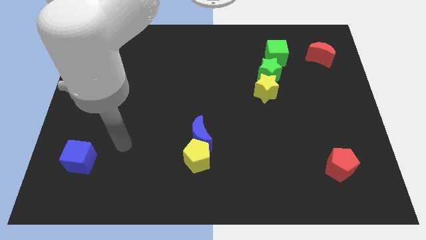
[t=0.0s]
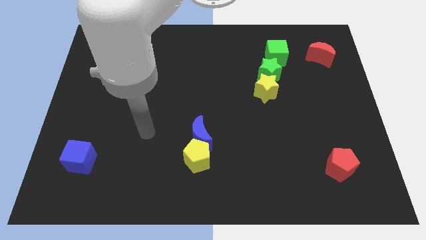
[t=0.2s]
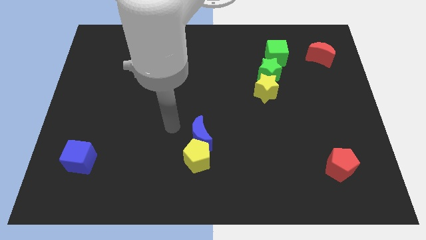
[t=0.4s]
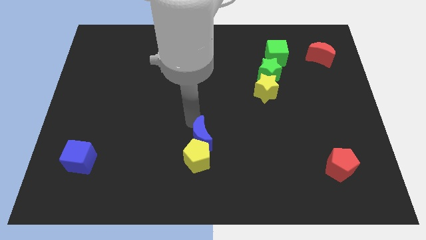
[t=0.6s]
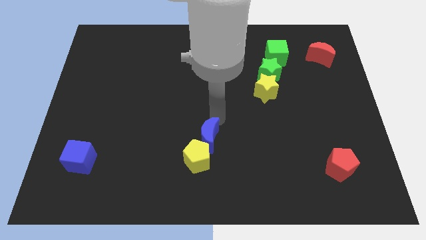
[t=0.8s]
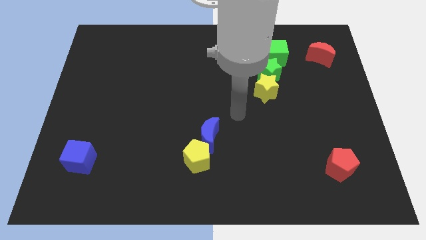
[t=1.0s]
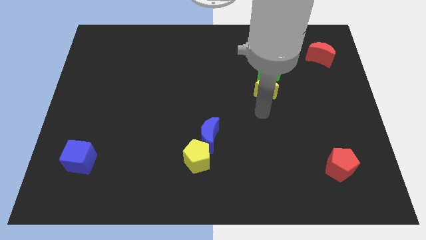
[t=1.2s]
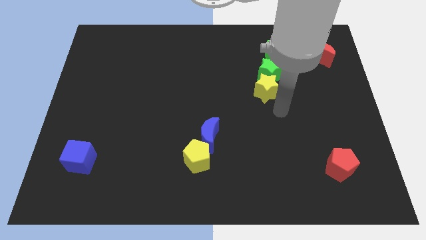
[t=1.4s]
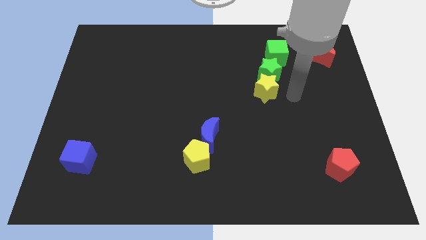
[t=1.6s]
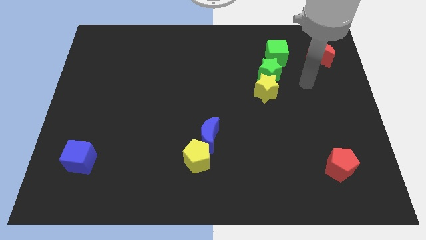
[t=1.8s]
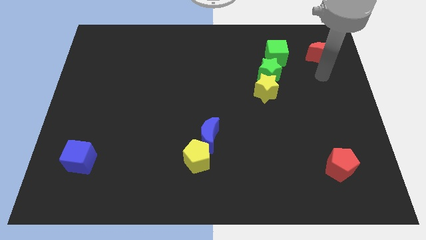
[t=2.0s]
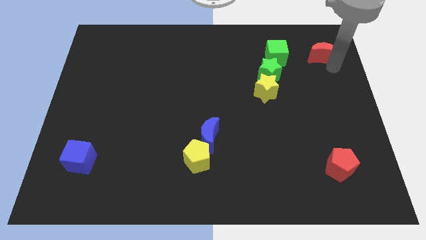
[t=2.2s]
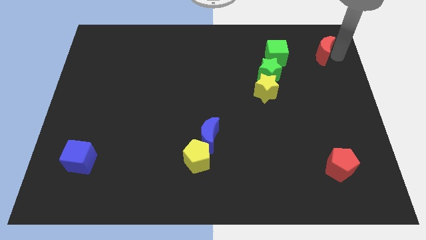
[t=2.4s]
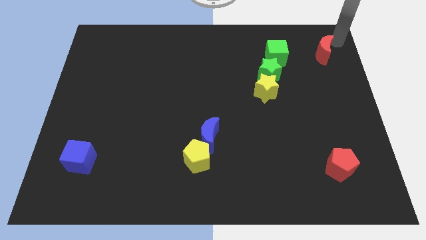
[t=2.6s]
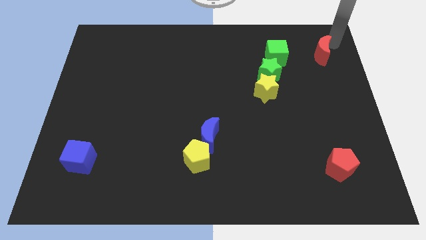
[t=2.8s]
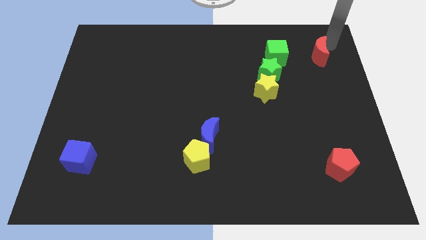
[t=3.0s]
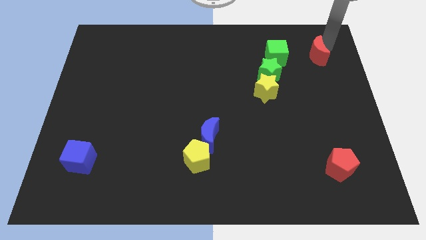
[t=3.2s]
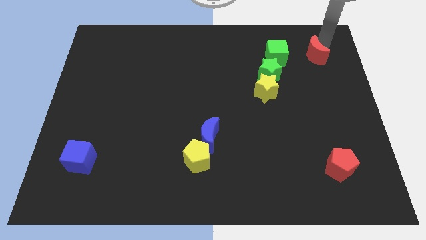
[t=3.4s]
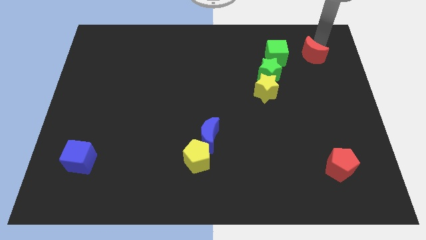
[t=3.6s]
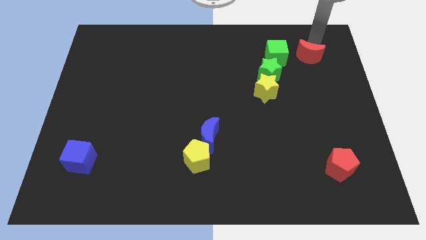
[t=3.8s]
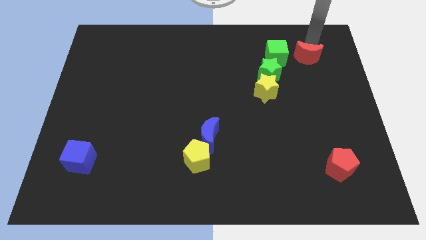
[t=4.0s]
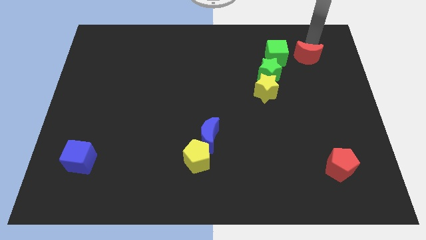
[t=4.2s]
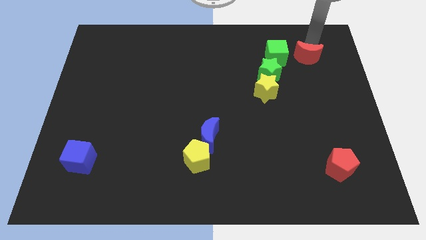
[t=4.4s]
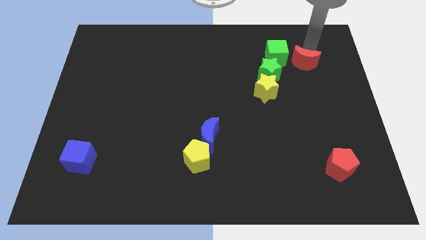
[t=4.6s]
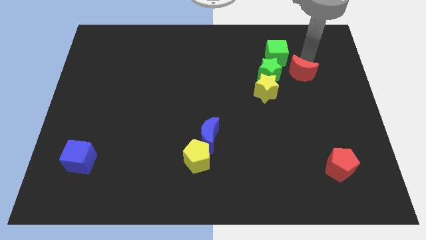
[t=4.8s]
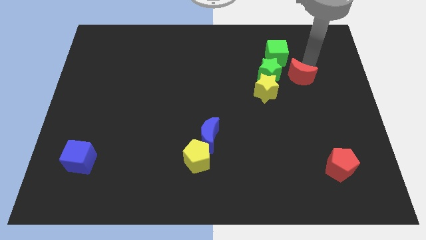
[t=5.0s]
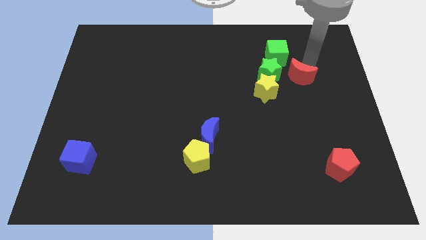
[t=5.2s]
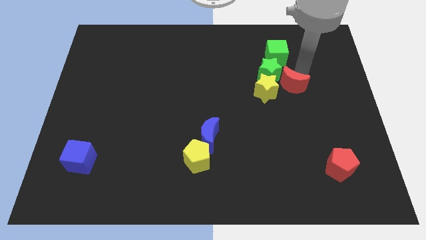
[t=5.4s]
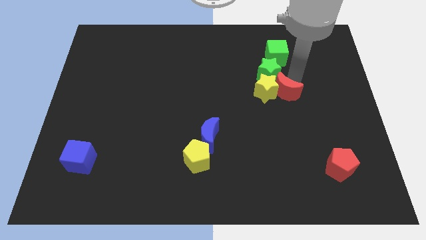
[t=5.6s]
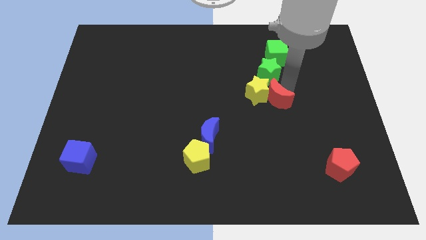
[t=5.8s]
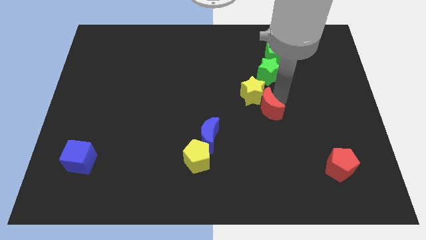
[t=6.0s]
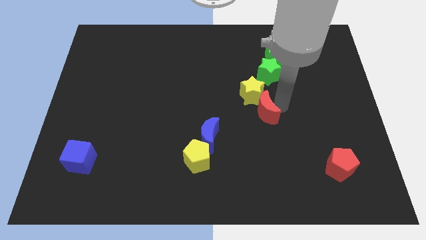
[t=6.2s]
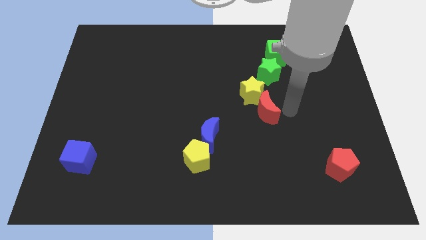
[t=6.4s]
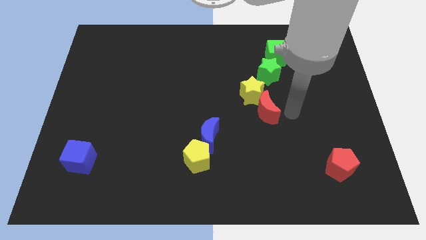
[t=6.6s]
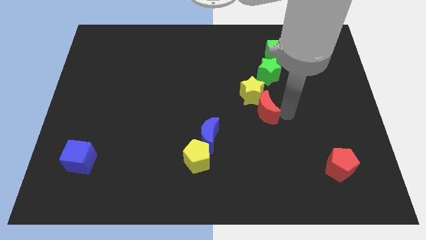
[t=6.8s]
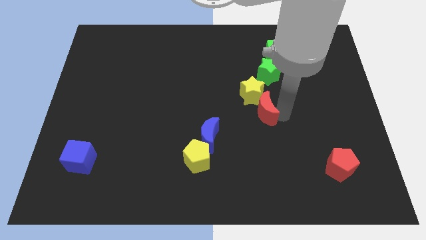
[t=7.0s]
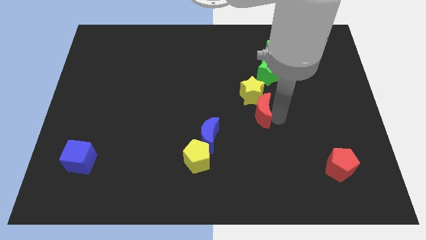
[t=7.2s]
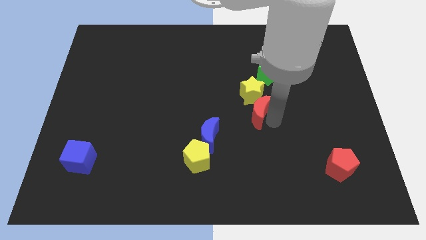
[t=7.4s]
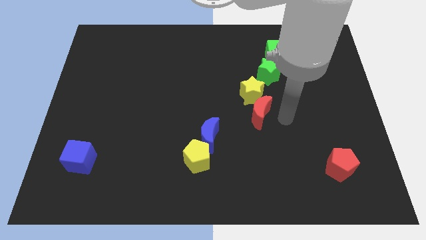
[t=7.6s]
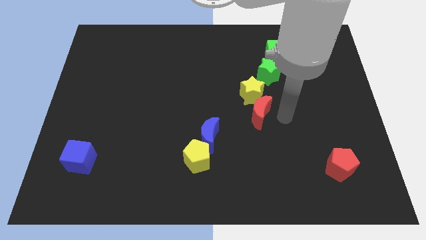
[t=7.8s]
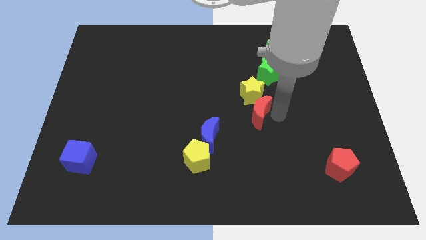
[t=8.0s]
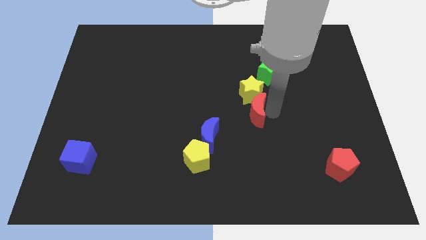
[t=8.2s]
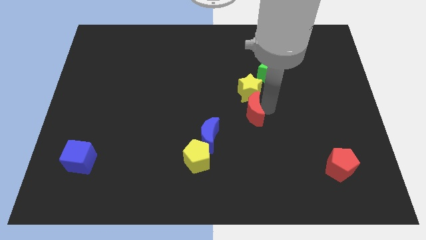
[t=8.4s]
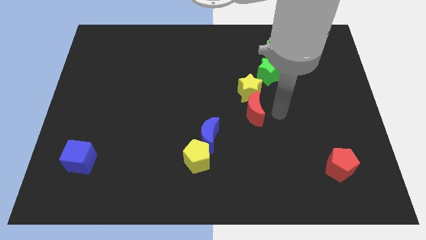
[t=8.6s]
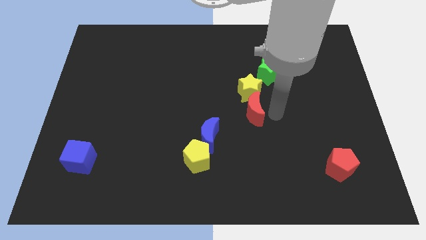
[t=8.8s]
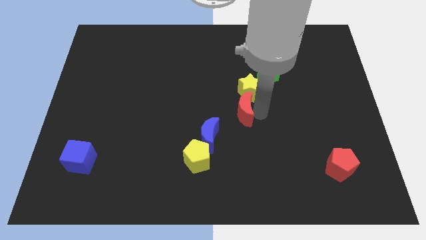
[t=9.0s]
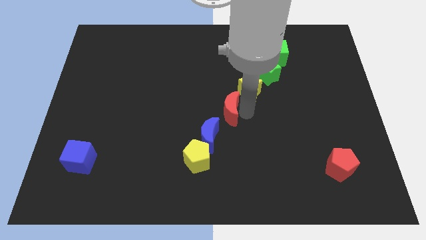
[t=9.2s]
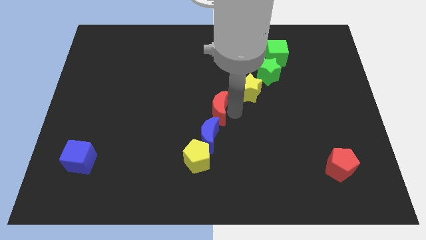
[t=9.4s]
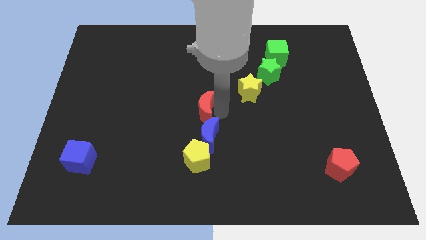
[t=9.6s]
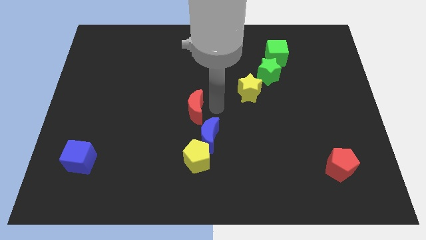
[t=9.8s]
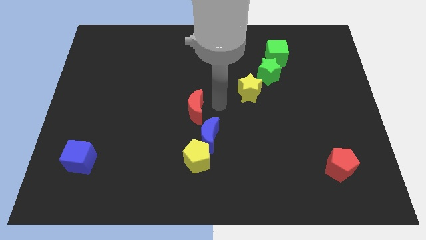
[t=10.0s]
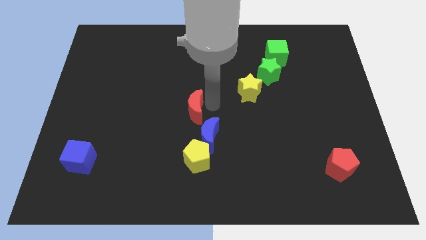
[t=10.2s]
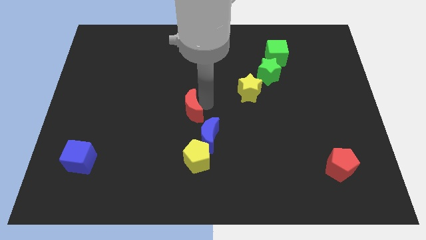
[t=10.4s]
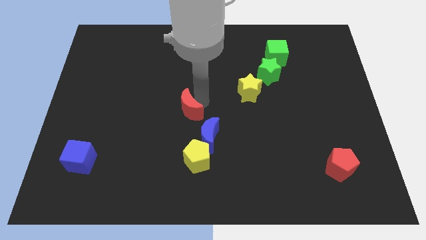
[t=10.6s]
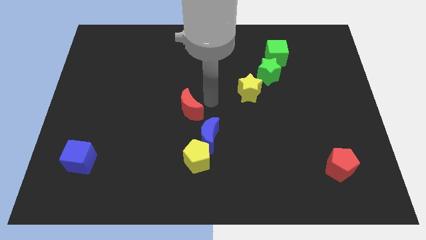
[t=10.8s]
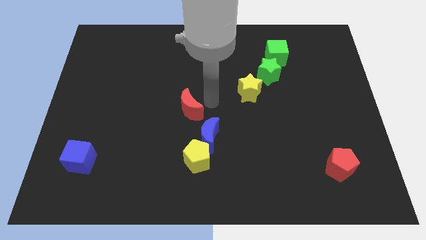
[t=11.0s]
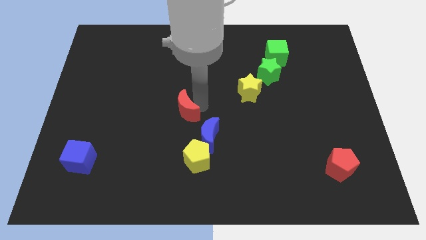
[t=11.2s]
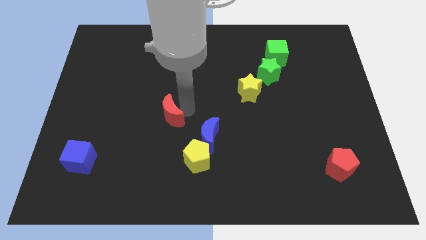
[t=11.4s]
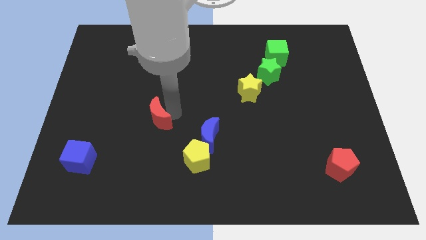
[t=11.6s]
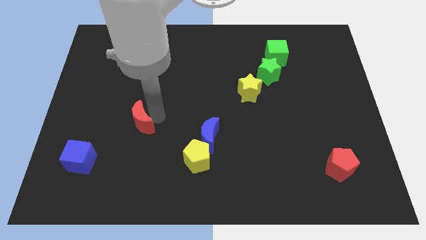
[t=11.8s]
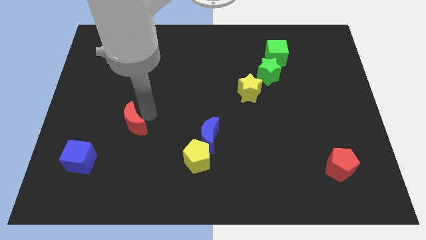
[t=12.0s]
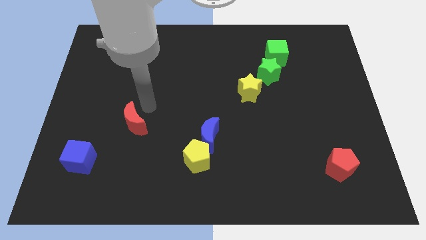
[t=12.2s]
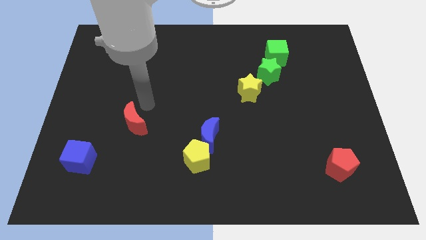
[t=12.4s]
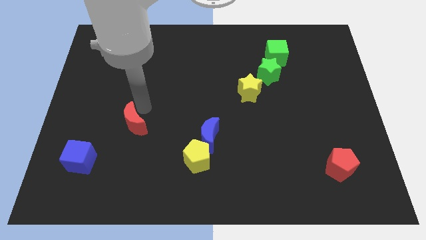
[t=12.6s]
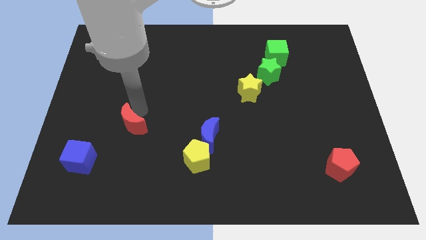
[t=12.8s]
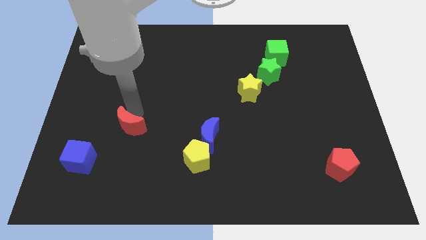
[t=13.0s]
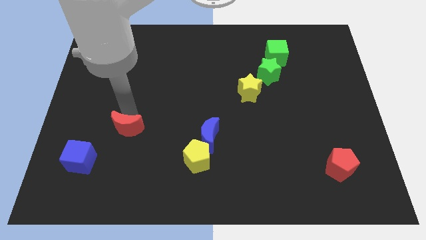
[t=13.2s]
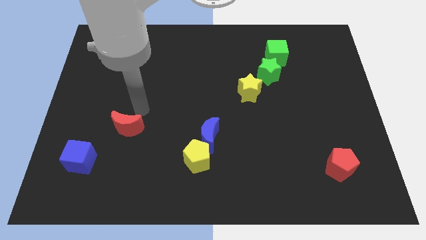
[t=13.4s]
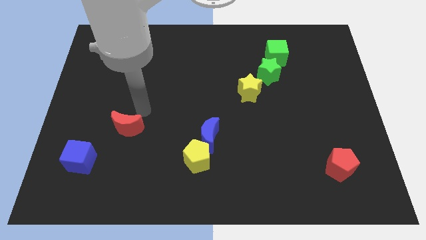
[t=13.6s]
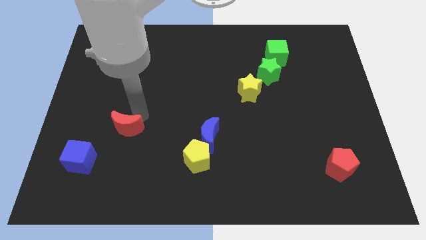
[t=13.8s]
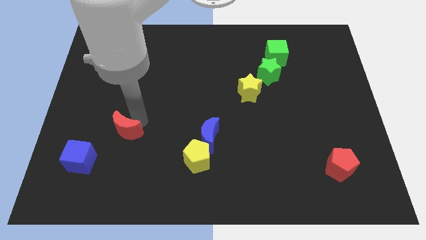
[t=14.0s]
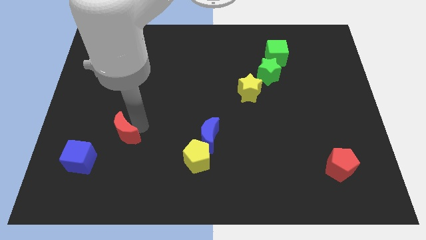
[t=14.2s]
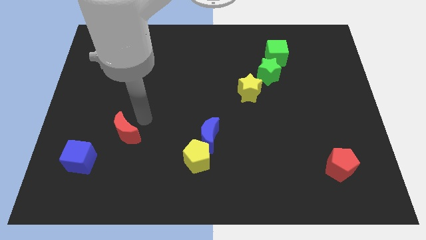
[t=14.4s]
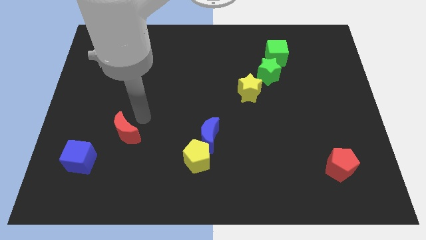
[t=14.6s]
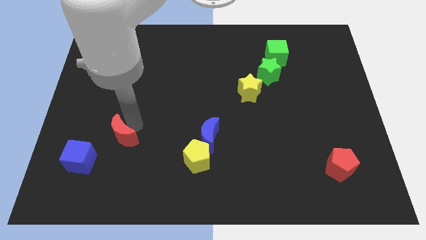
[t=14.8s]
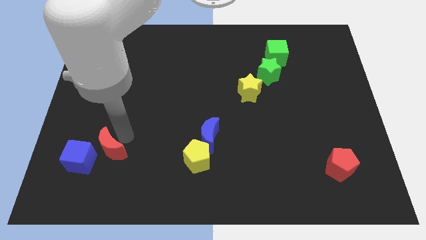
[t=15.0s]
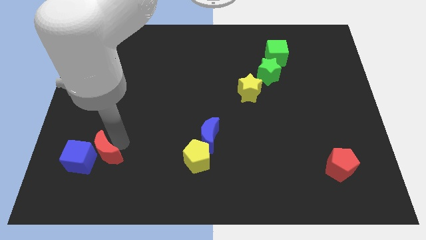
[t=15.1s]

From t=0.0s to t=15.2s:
move the red moon next to the blue cube
